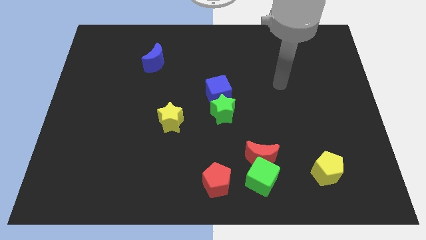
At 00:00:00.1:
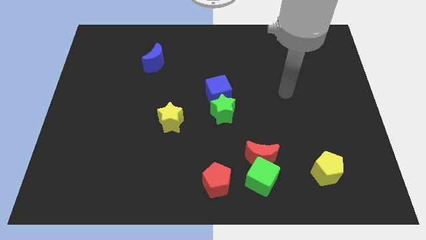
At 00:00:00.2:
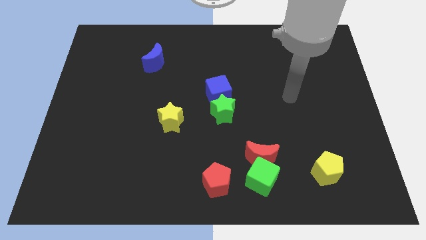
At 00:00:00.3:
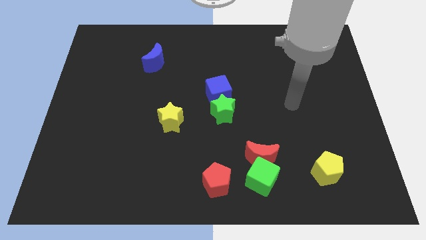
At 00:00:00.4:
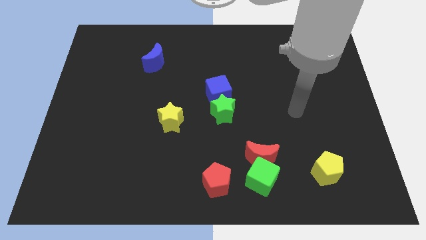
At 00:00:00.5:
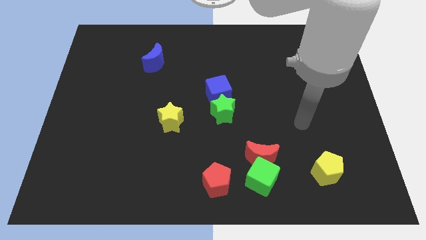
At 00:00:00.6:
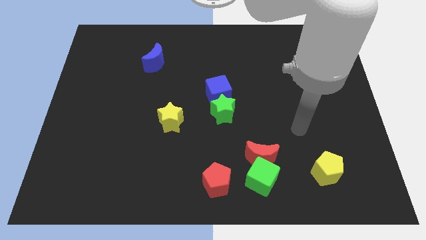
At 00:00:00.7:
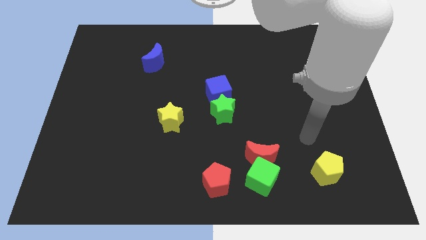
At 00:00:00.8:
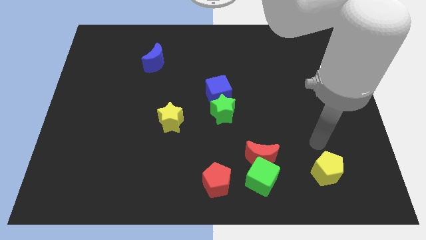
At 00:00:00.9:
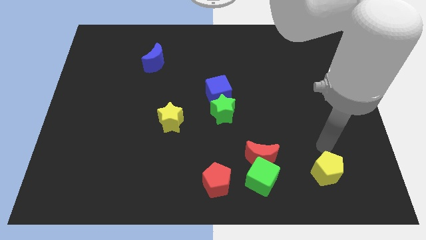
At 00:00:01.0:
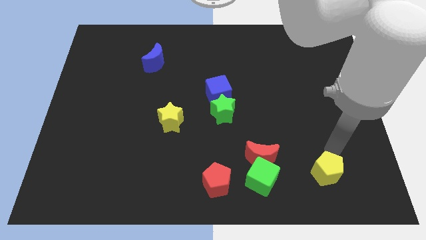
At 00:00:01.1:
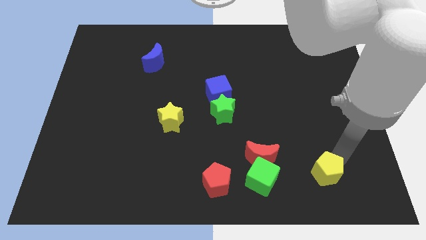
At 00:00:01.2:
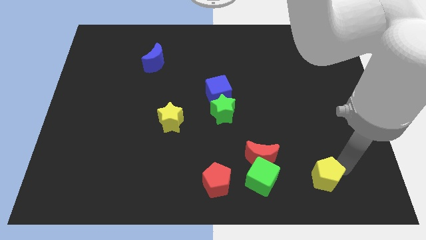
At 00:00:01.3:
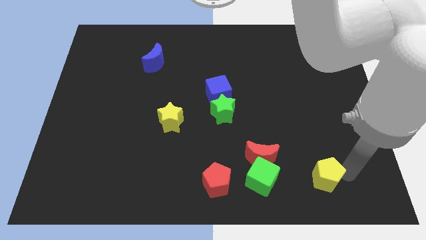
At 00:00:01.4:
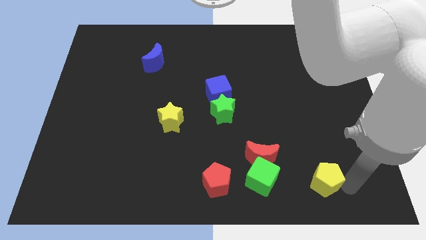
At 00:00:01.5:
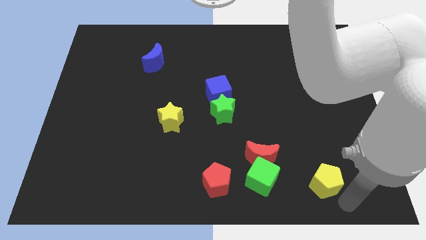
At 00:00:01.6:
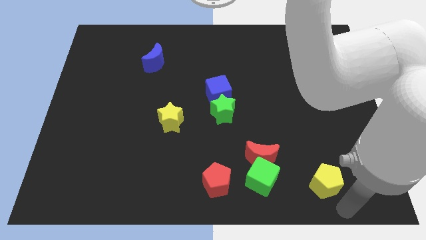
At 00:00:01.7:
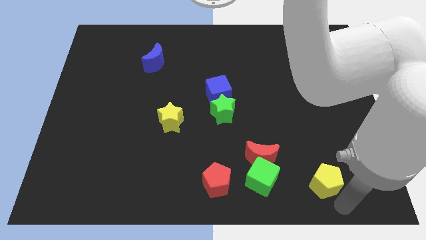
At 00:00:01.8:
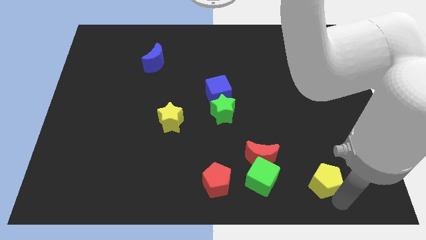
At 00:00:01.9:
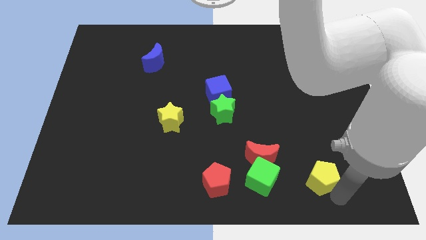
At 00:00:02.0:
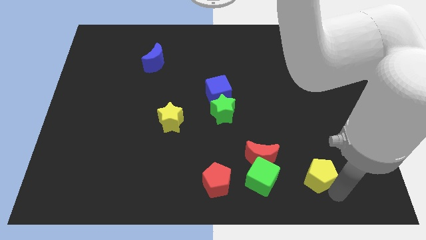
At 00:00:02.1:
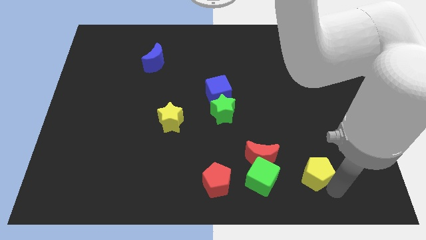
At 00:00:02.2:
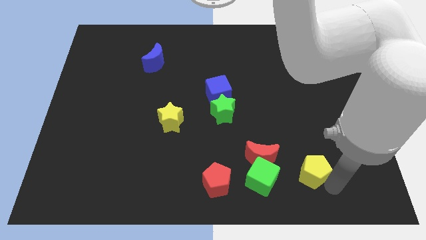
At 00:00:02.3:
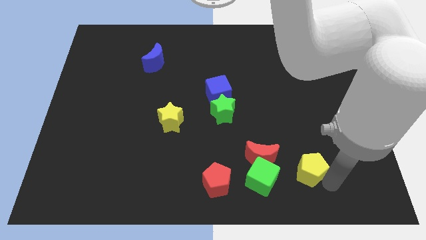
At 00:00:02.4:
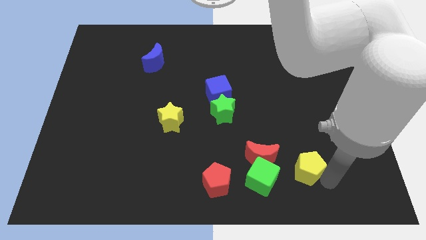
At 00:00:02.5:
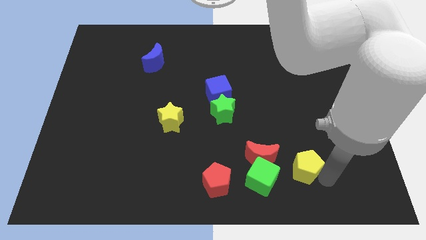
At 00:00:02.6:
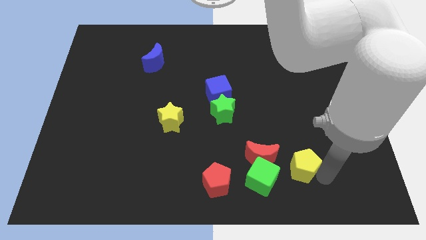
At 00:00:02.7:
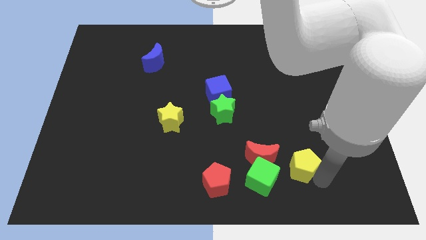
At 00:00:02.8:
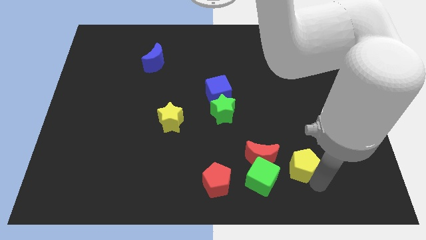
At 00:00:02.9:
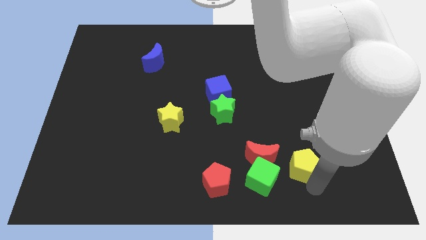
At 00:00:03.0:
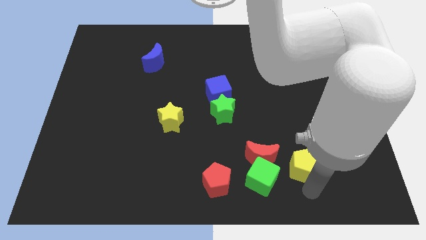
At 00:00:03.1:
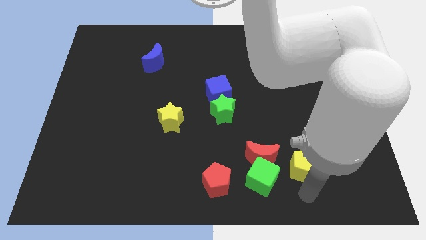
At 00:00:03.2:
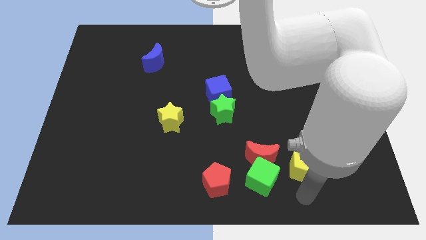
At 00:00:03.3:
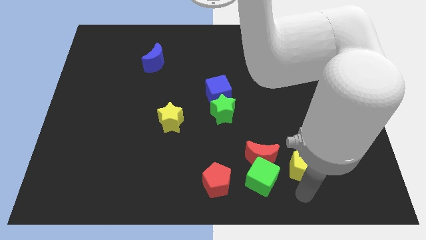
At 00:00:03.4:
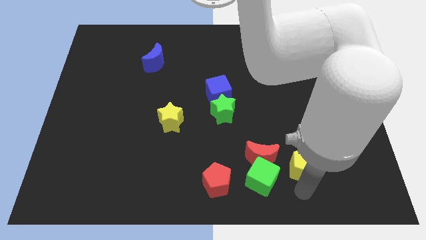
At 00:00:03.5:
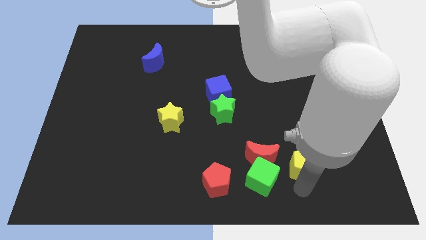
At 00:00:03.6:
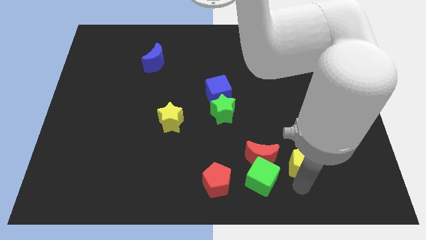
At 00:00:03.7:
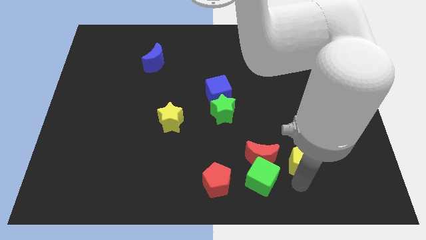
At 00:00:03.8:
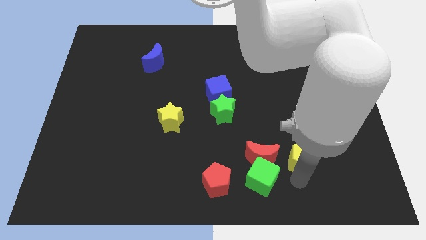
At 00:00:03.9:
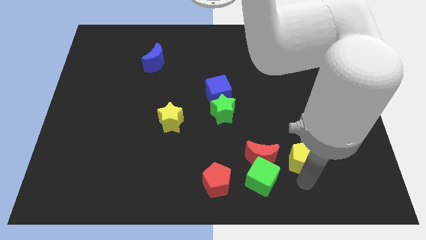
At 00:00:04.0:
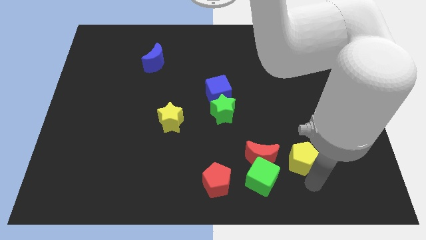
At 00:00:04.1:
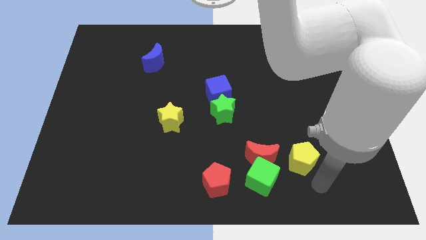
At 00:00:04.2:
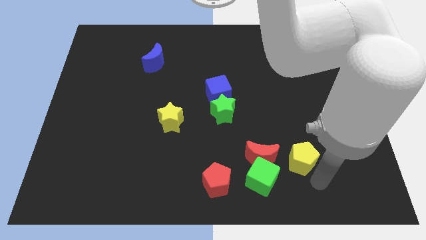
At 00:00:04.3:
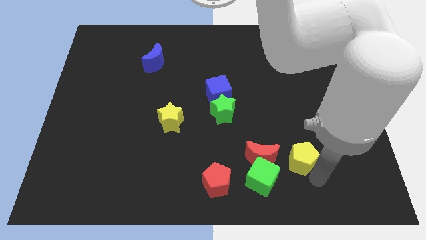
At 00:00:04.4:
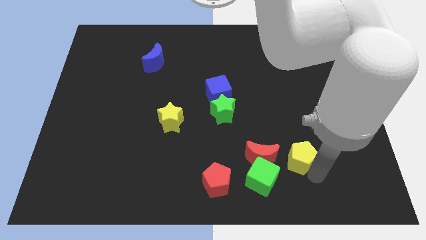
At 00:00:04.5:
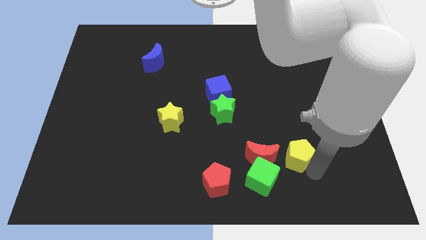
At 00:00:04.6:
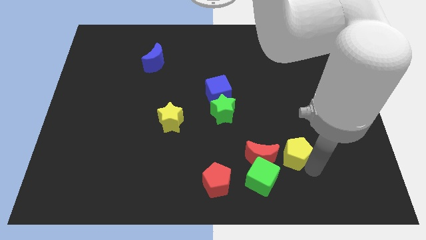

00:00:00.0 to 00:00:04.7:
push the yellow pentagon to the top right side of the red moon

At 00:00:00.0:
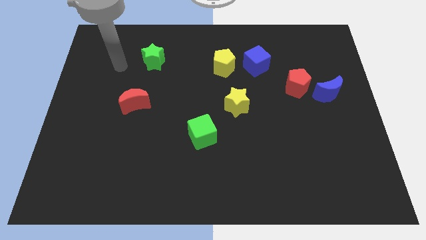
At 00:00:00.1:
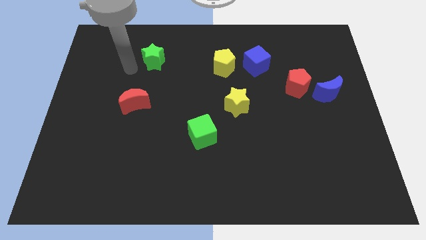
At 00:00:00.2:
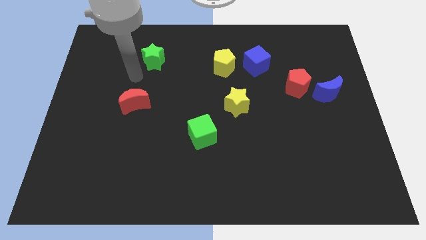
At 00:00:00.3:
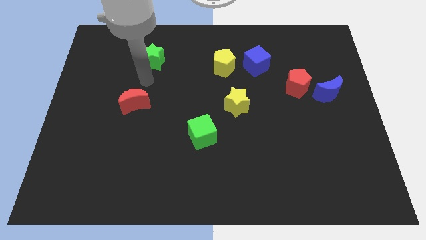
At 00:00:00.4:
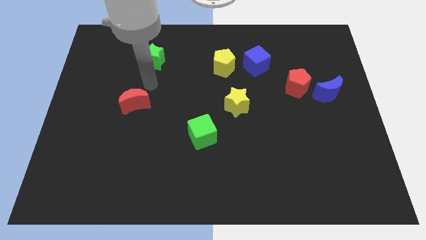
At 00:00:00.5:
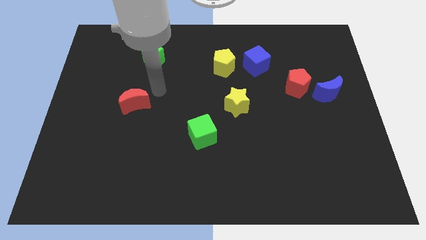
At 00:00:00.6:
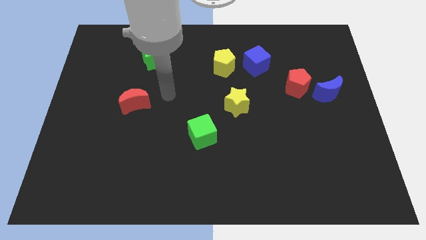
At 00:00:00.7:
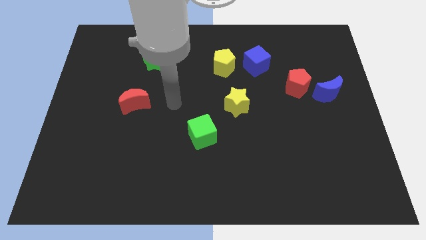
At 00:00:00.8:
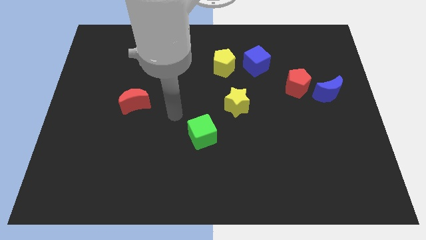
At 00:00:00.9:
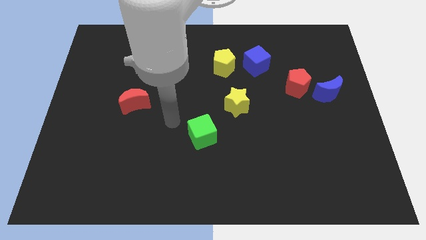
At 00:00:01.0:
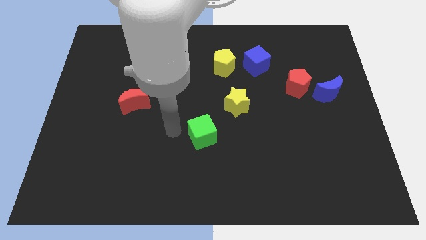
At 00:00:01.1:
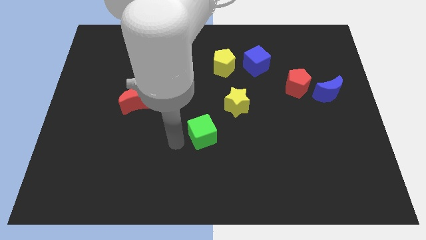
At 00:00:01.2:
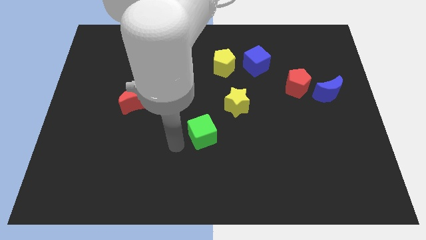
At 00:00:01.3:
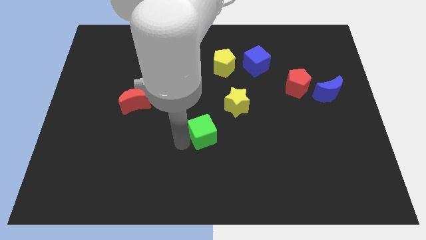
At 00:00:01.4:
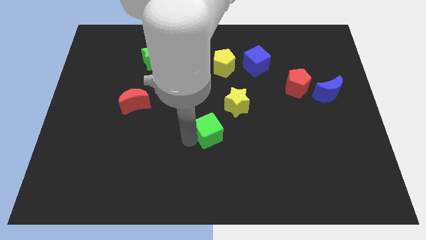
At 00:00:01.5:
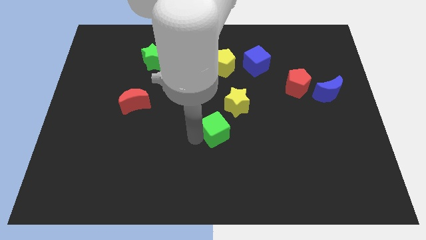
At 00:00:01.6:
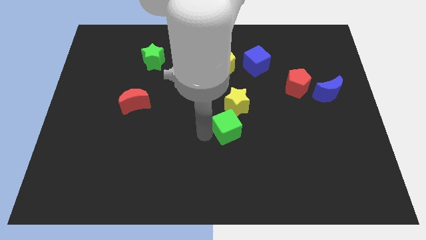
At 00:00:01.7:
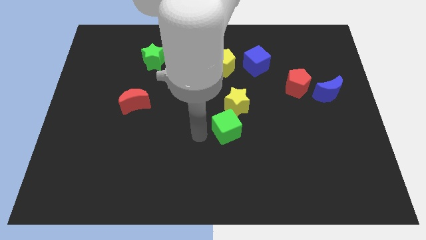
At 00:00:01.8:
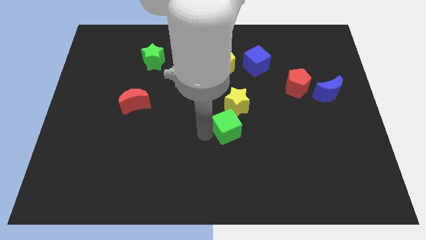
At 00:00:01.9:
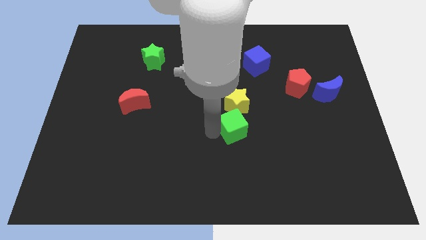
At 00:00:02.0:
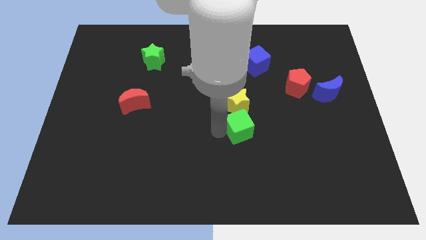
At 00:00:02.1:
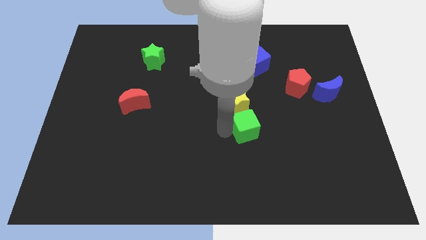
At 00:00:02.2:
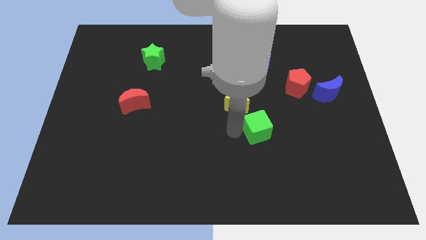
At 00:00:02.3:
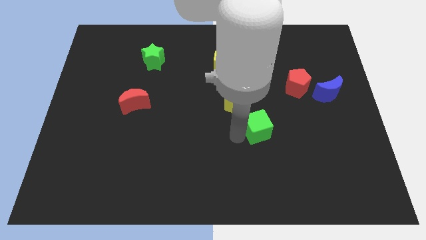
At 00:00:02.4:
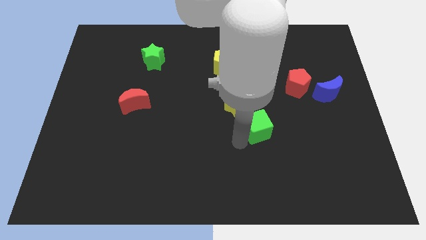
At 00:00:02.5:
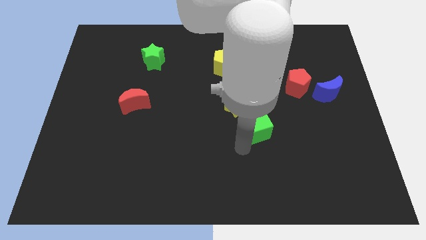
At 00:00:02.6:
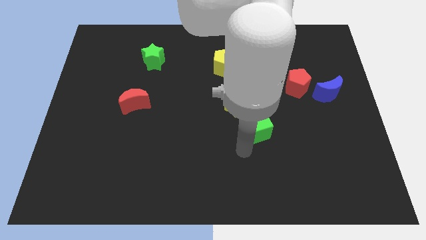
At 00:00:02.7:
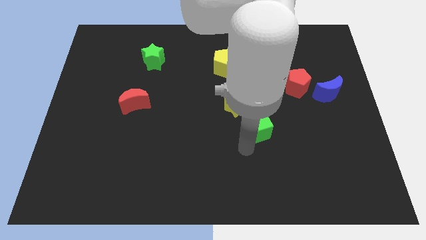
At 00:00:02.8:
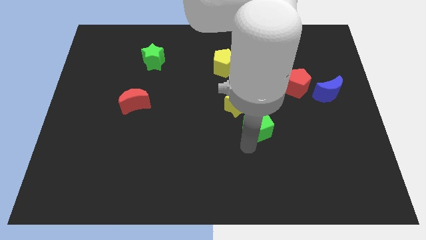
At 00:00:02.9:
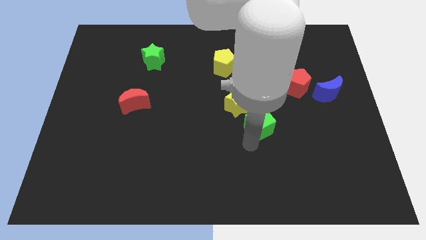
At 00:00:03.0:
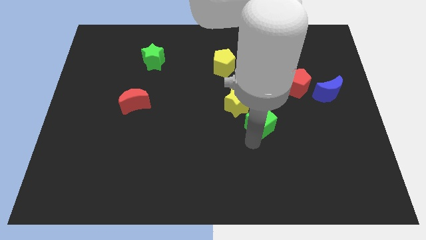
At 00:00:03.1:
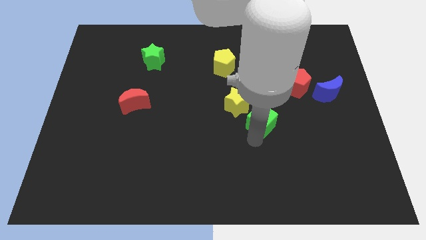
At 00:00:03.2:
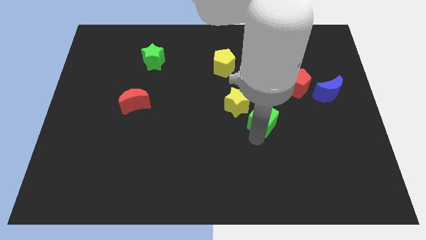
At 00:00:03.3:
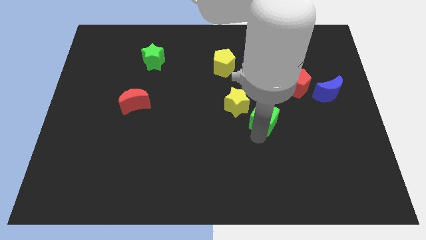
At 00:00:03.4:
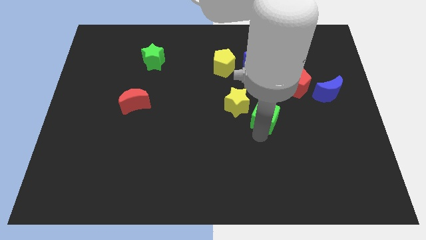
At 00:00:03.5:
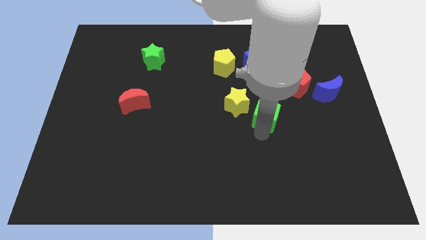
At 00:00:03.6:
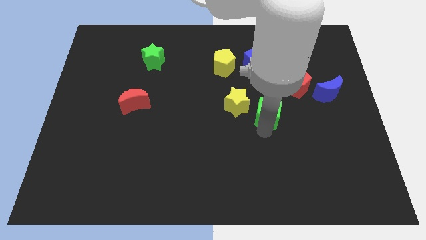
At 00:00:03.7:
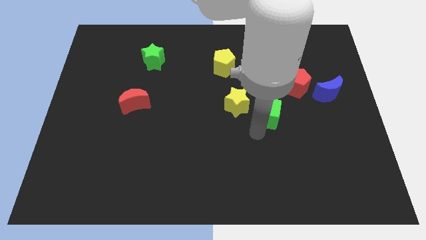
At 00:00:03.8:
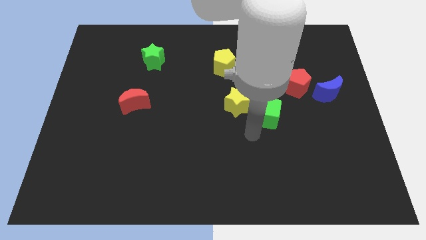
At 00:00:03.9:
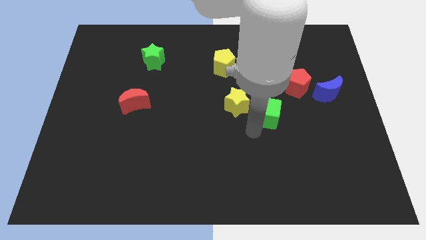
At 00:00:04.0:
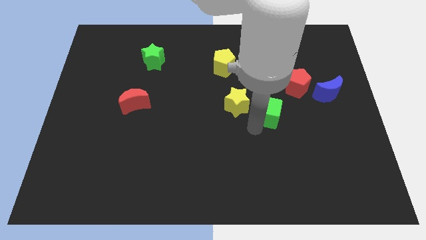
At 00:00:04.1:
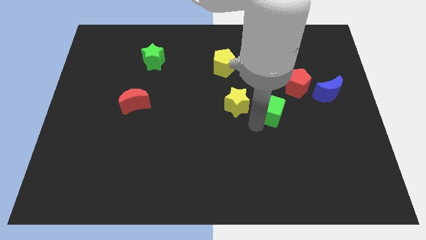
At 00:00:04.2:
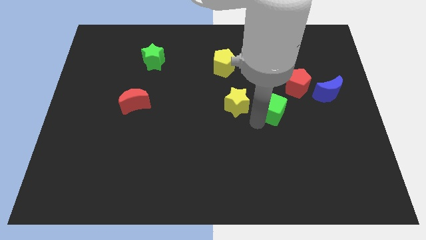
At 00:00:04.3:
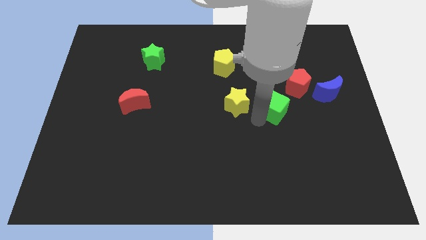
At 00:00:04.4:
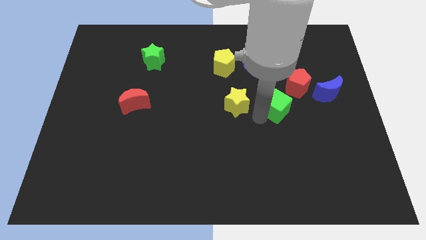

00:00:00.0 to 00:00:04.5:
slide the green cube to the left side of the blue moon
